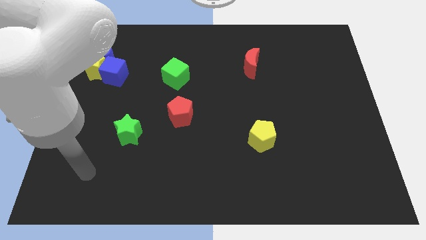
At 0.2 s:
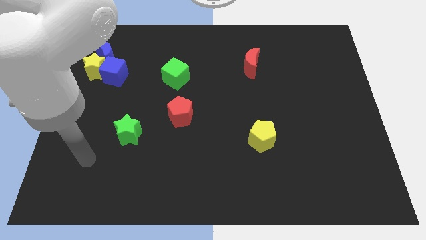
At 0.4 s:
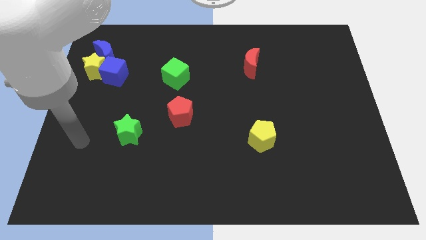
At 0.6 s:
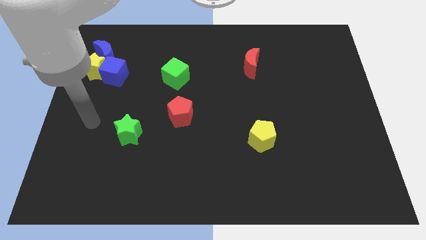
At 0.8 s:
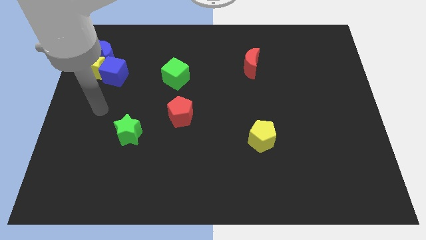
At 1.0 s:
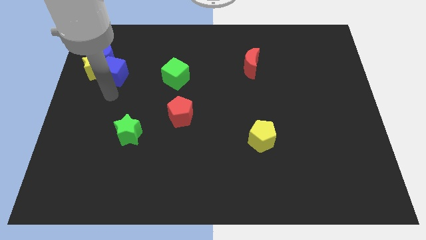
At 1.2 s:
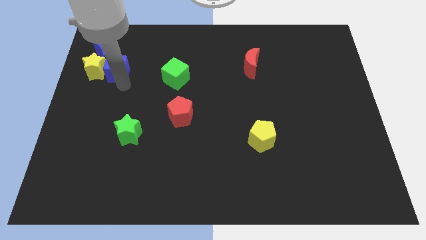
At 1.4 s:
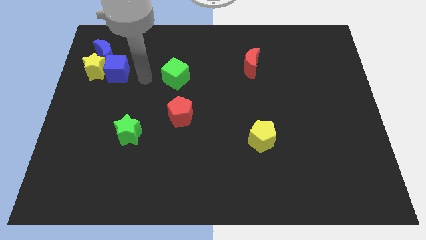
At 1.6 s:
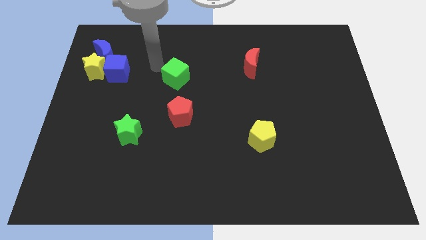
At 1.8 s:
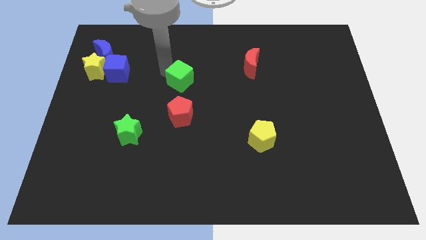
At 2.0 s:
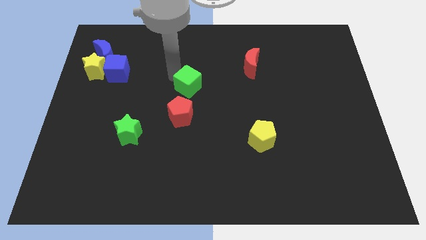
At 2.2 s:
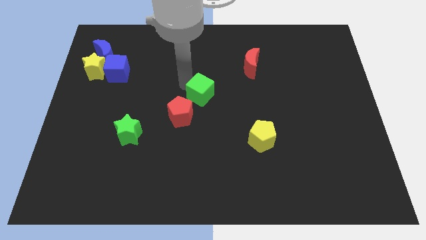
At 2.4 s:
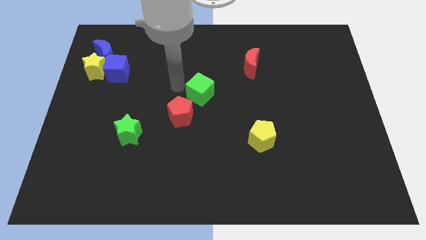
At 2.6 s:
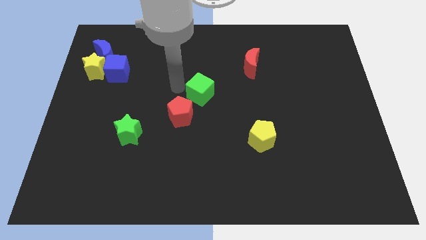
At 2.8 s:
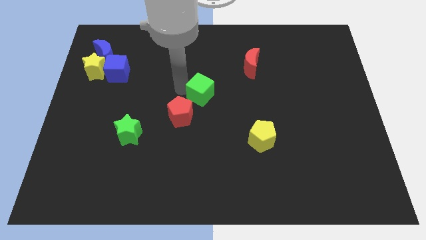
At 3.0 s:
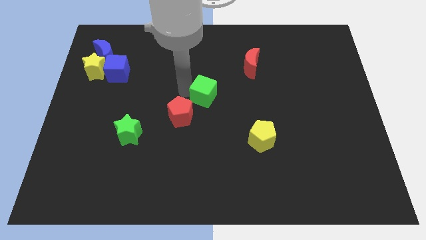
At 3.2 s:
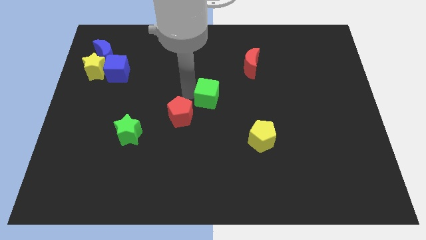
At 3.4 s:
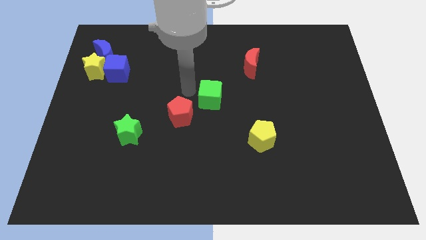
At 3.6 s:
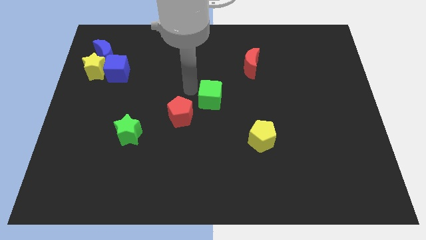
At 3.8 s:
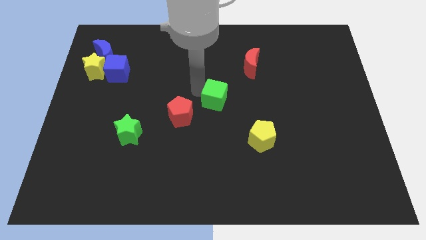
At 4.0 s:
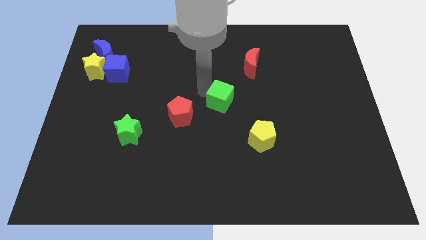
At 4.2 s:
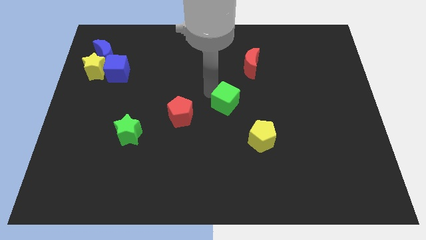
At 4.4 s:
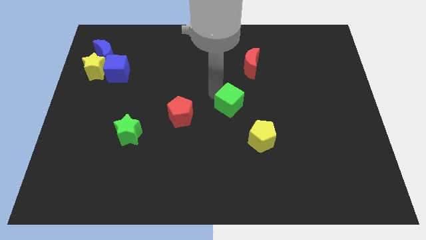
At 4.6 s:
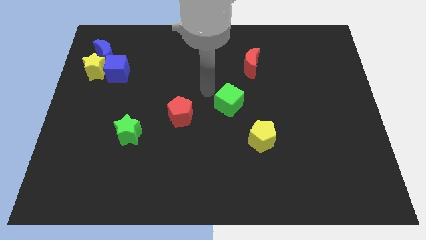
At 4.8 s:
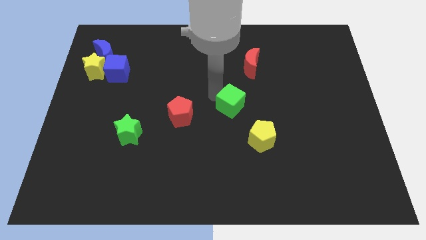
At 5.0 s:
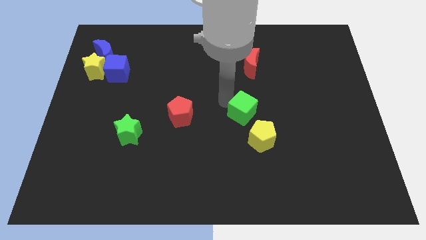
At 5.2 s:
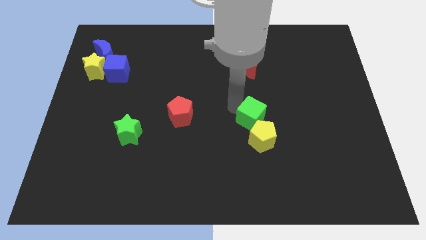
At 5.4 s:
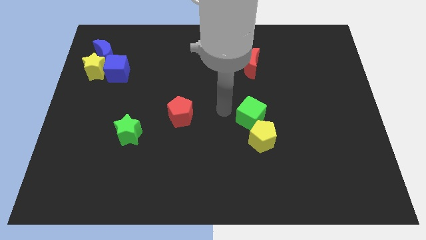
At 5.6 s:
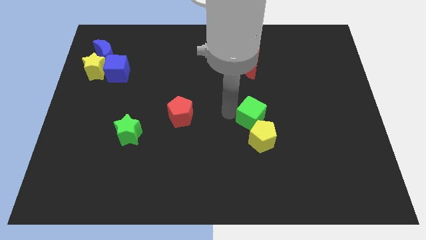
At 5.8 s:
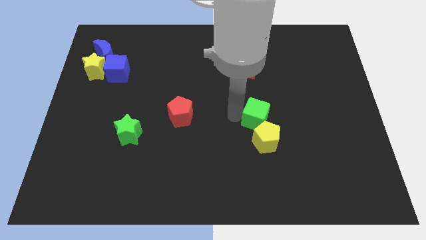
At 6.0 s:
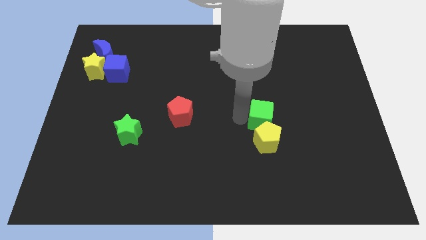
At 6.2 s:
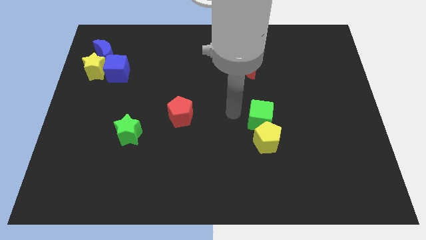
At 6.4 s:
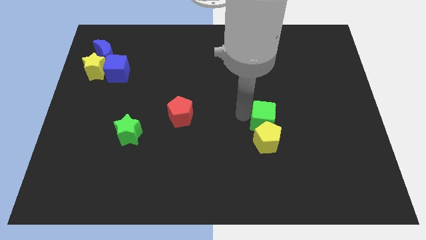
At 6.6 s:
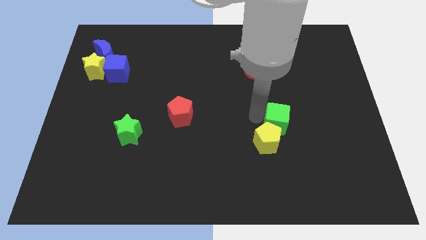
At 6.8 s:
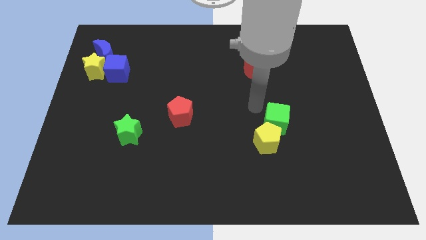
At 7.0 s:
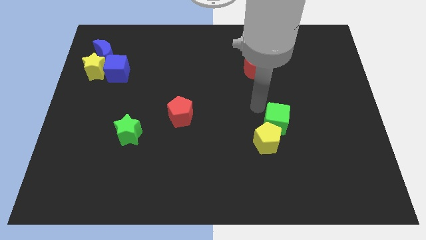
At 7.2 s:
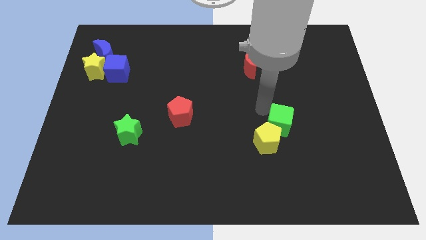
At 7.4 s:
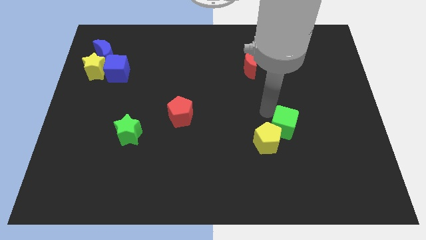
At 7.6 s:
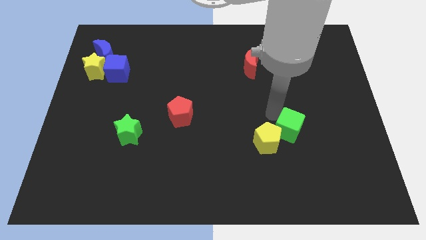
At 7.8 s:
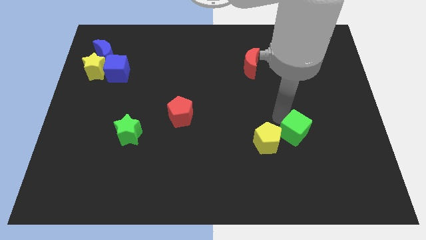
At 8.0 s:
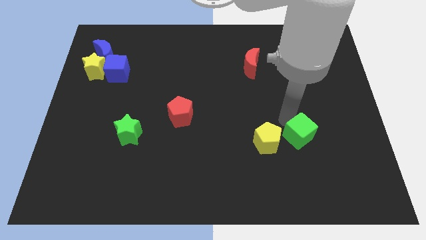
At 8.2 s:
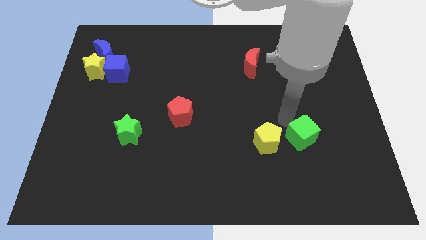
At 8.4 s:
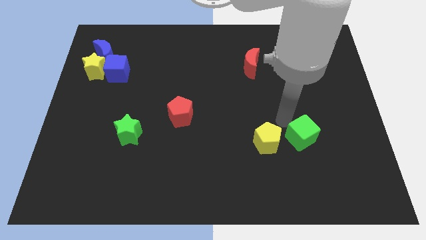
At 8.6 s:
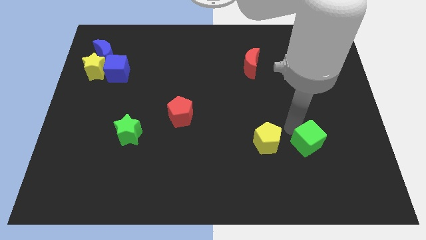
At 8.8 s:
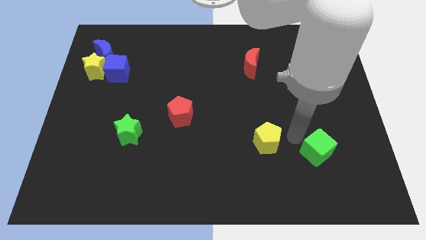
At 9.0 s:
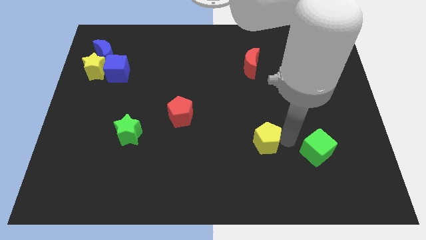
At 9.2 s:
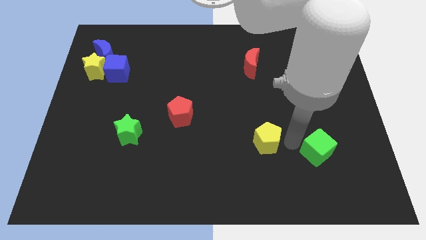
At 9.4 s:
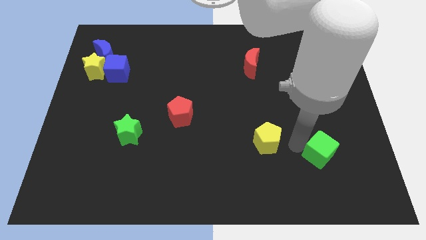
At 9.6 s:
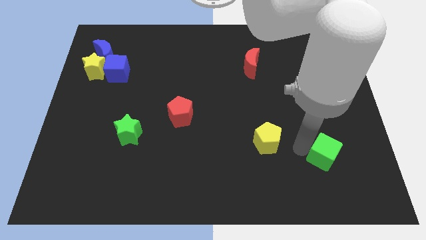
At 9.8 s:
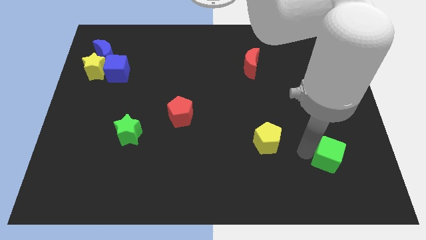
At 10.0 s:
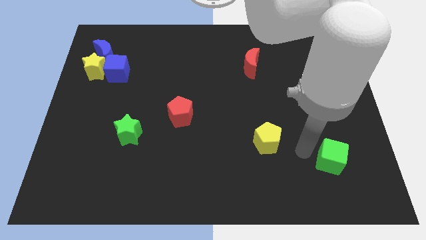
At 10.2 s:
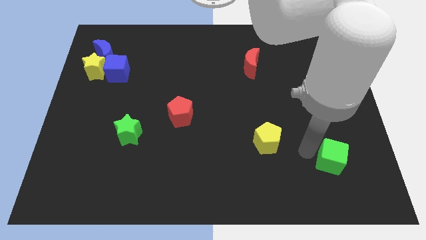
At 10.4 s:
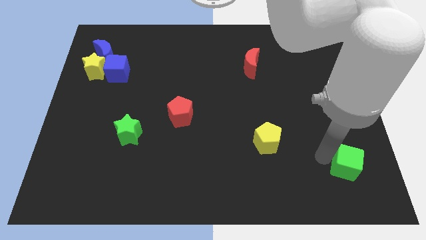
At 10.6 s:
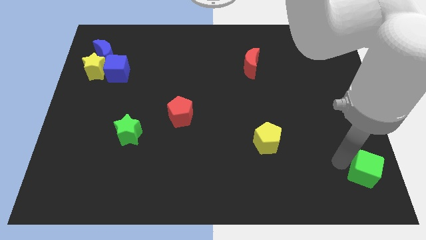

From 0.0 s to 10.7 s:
move the green cube to the lower right corner

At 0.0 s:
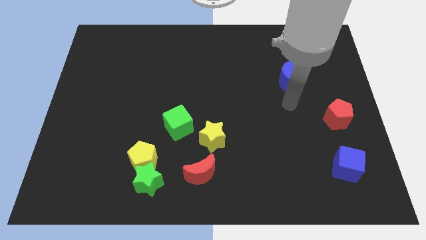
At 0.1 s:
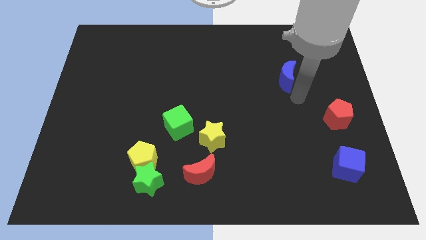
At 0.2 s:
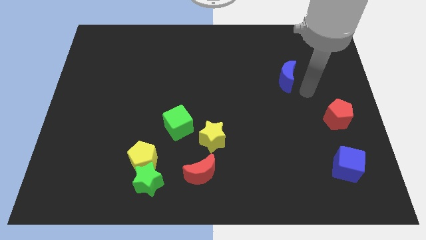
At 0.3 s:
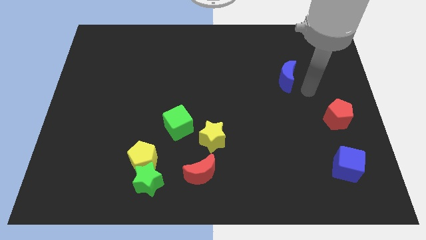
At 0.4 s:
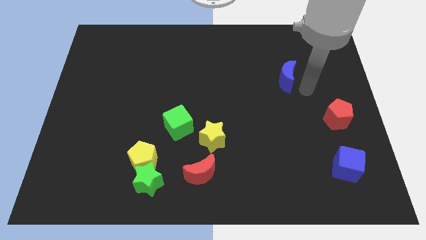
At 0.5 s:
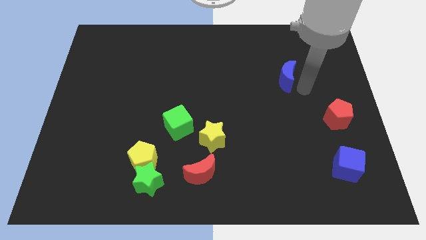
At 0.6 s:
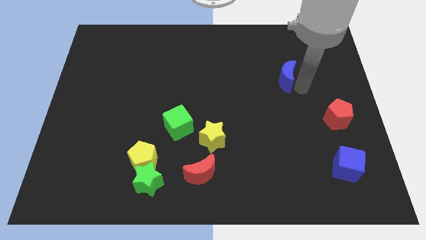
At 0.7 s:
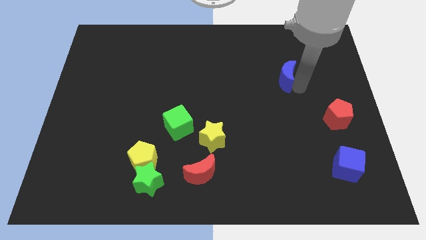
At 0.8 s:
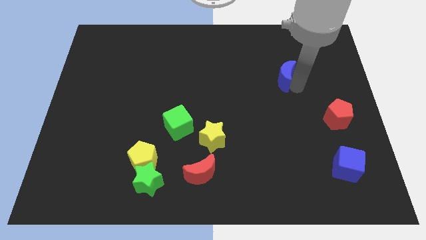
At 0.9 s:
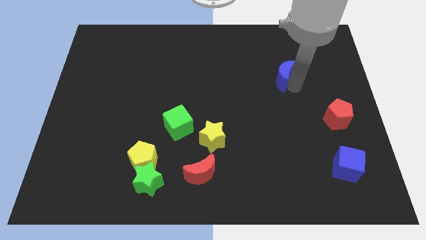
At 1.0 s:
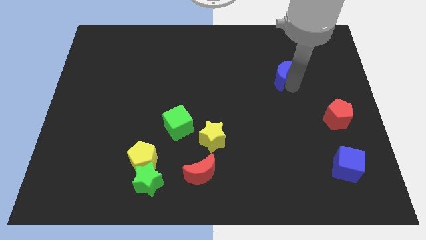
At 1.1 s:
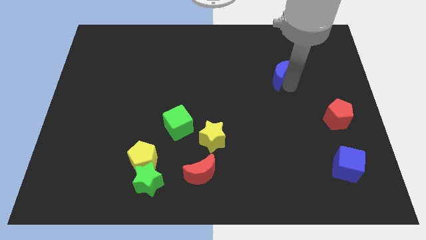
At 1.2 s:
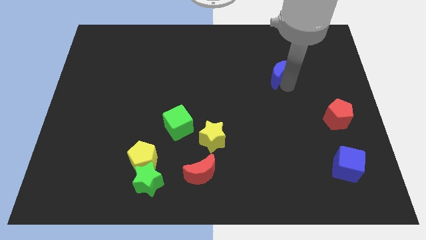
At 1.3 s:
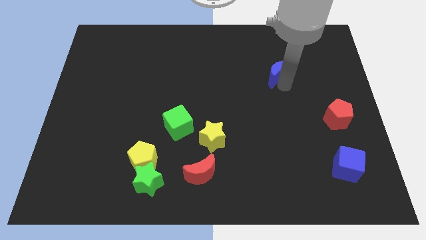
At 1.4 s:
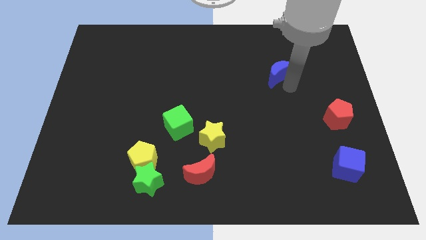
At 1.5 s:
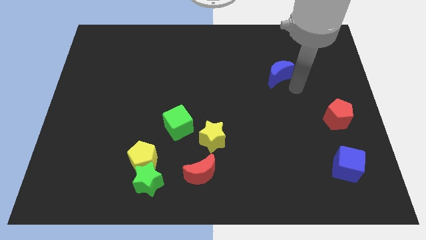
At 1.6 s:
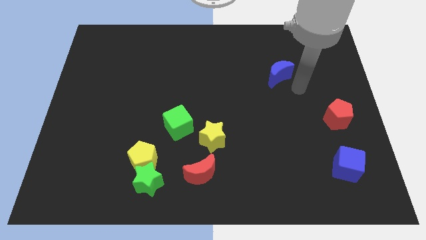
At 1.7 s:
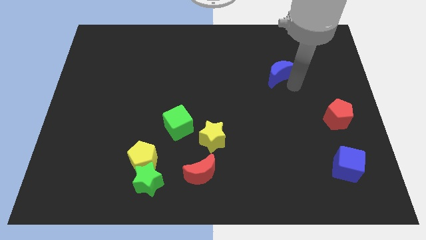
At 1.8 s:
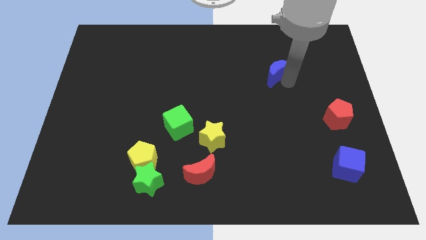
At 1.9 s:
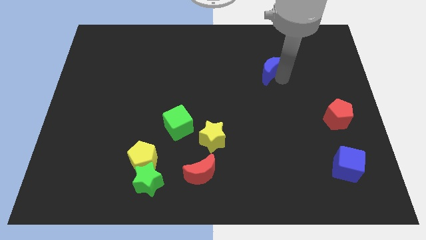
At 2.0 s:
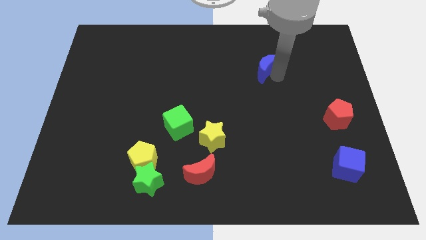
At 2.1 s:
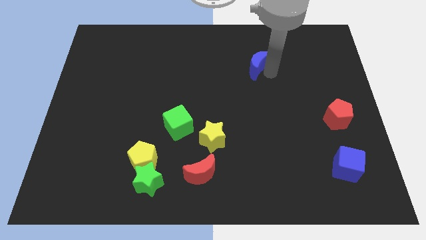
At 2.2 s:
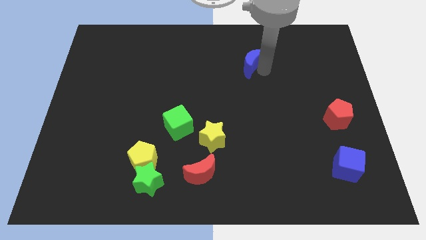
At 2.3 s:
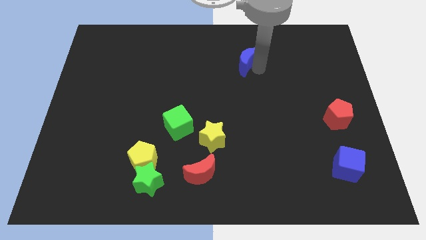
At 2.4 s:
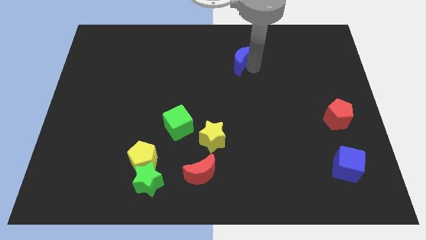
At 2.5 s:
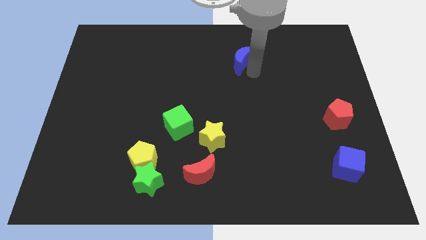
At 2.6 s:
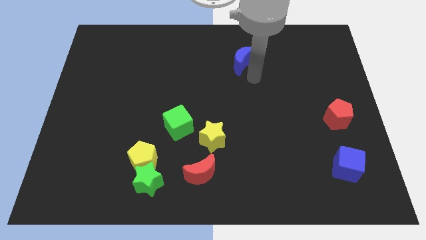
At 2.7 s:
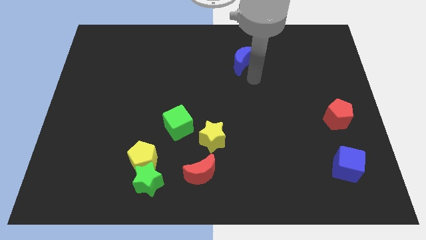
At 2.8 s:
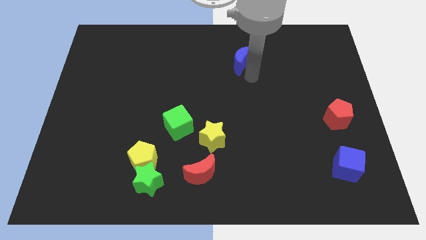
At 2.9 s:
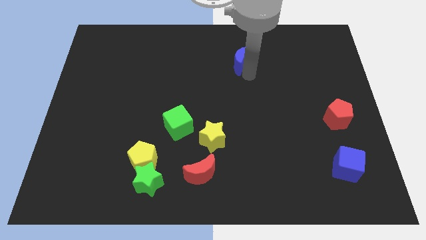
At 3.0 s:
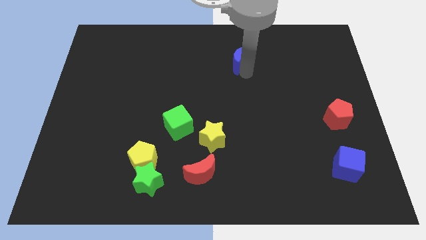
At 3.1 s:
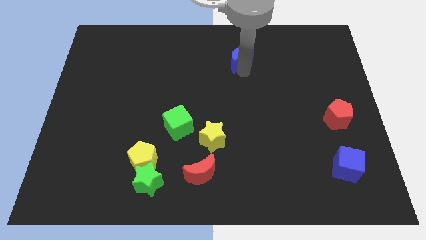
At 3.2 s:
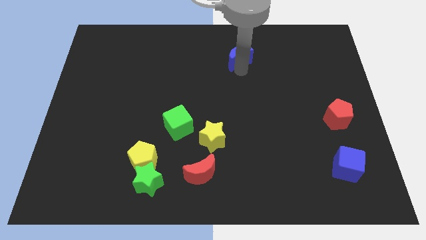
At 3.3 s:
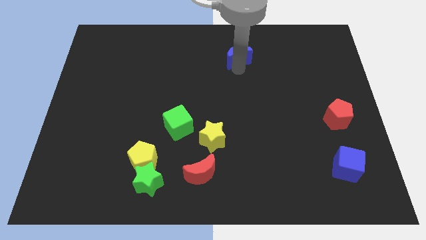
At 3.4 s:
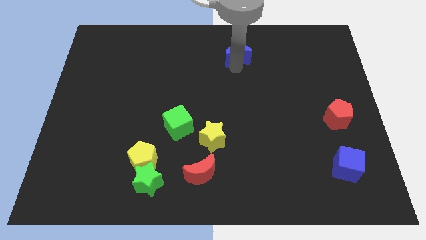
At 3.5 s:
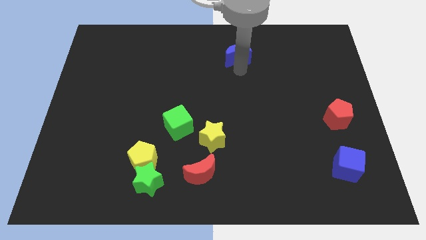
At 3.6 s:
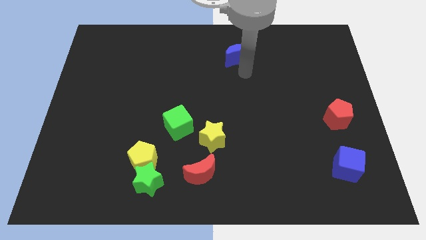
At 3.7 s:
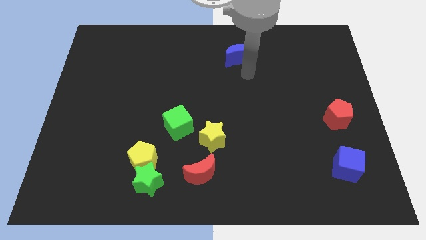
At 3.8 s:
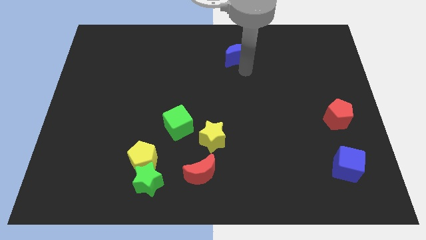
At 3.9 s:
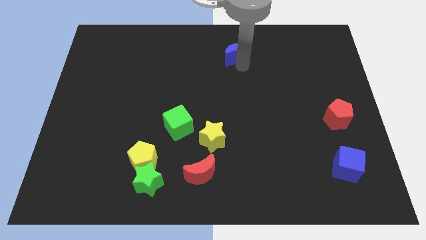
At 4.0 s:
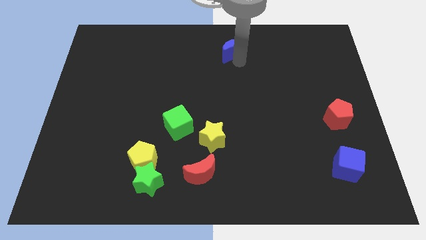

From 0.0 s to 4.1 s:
push the blue moon to the top side
